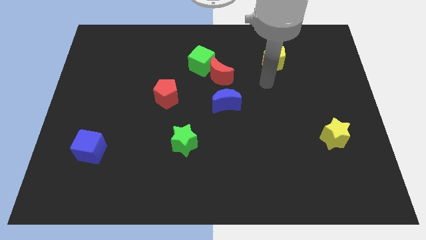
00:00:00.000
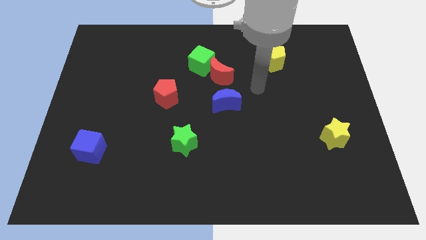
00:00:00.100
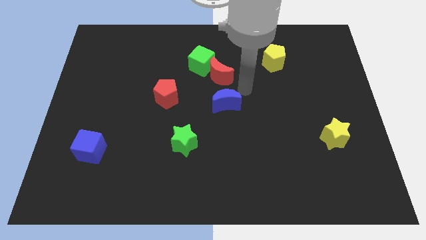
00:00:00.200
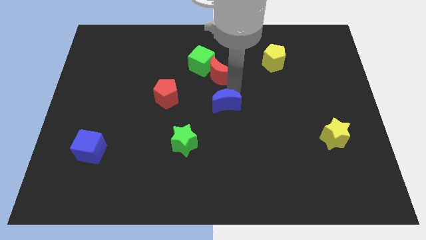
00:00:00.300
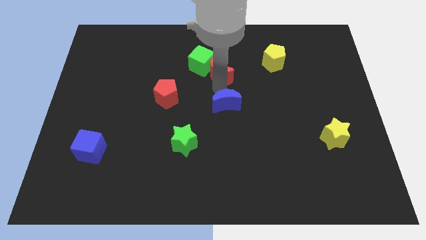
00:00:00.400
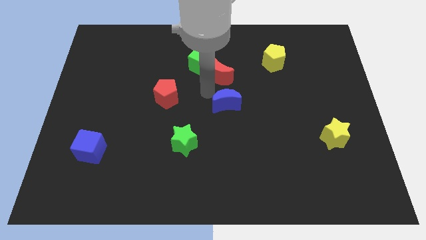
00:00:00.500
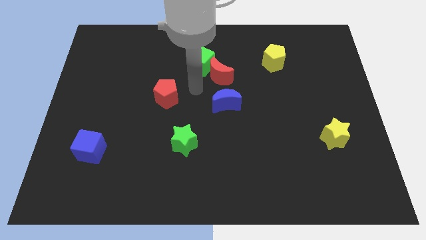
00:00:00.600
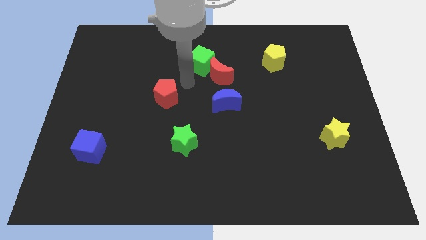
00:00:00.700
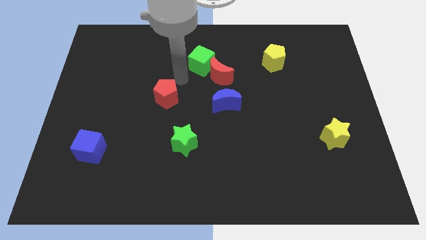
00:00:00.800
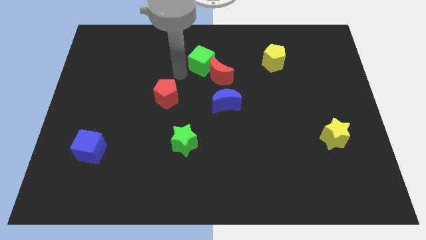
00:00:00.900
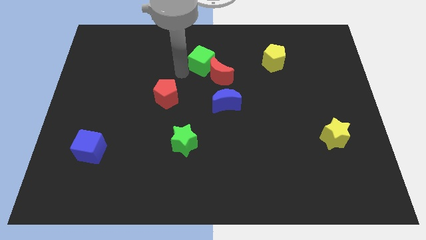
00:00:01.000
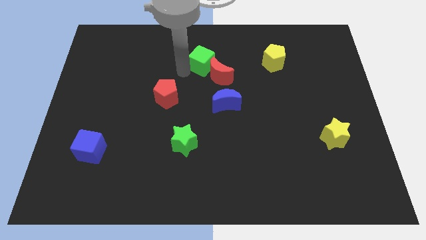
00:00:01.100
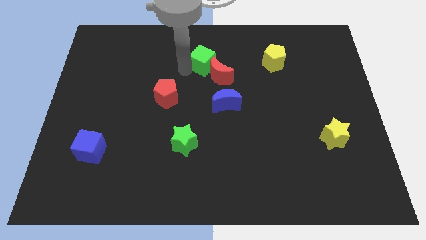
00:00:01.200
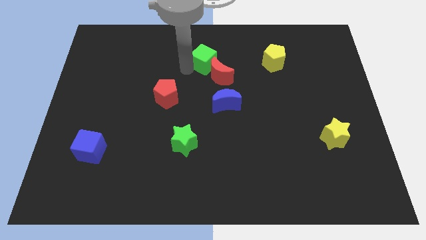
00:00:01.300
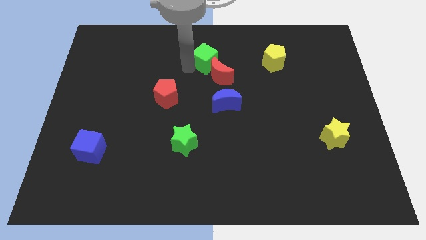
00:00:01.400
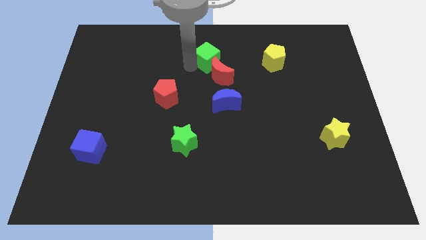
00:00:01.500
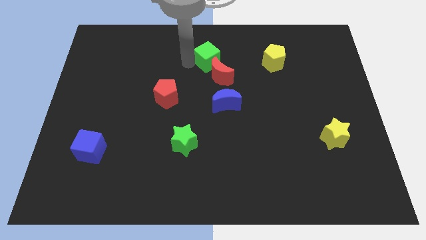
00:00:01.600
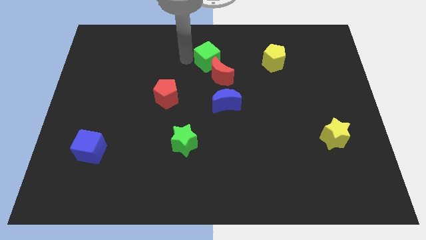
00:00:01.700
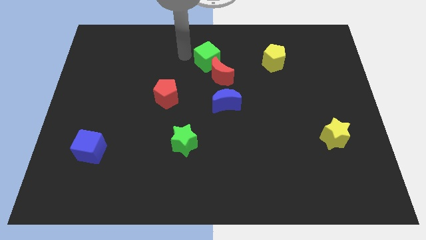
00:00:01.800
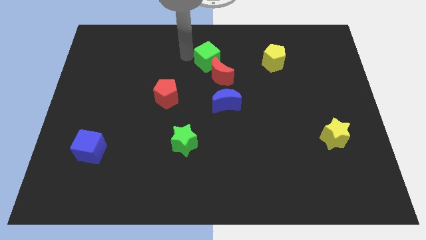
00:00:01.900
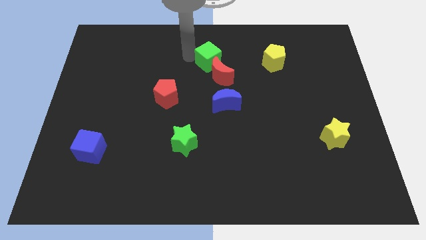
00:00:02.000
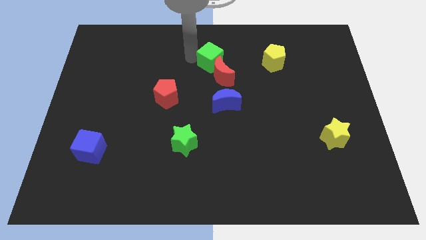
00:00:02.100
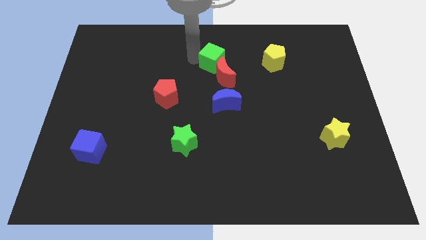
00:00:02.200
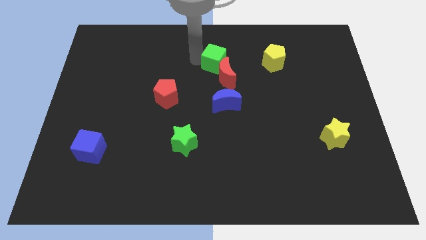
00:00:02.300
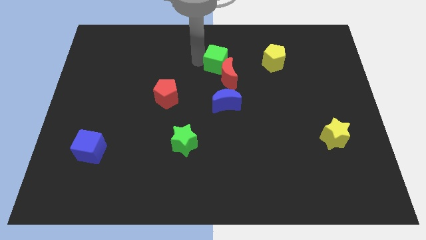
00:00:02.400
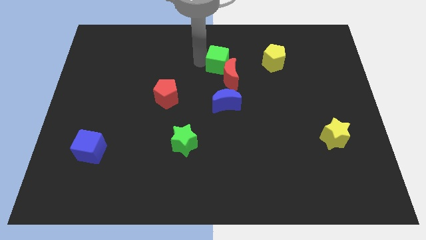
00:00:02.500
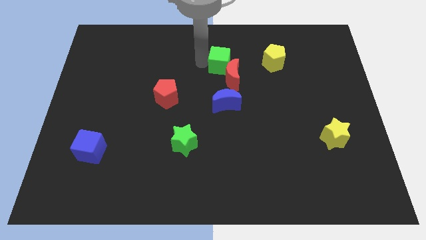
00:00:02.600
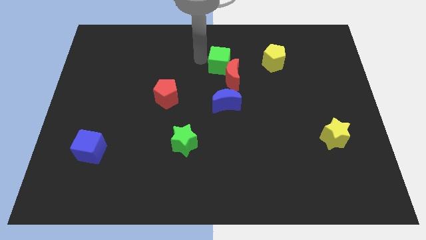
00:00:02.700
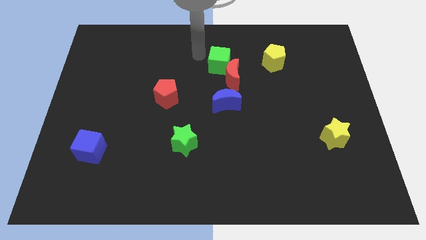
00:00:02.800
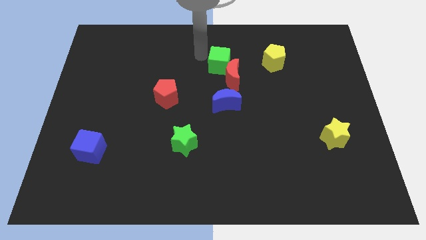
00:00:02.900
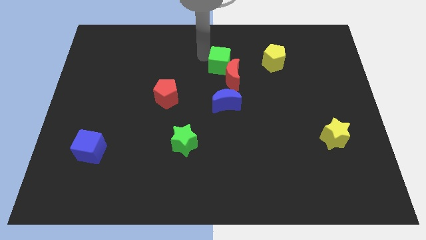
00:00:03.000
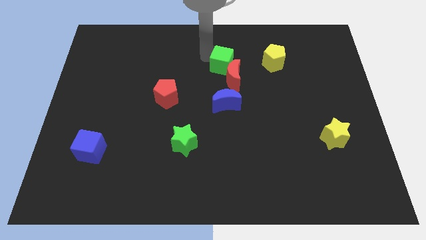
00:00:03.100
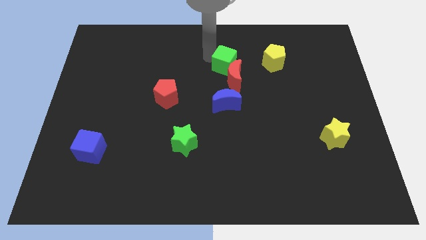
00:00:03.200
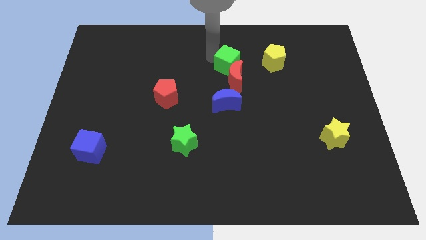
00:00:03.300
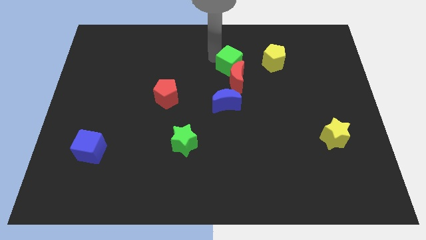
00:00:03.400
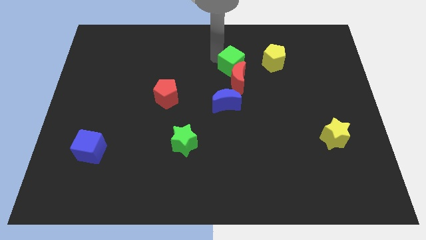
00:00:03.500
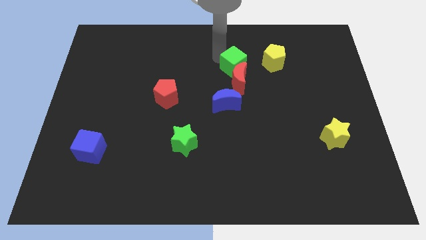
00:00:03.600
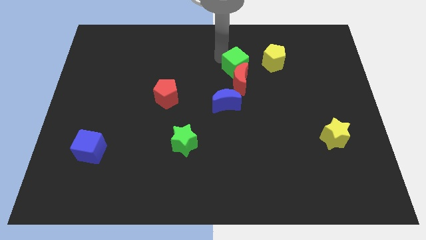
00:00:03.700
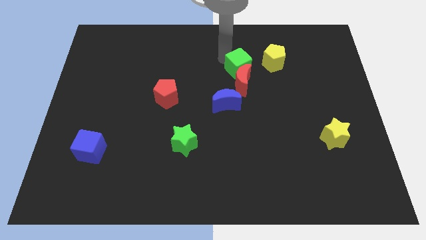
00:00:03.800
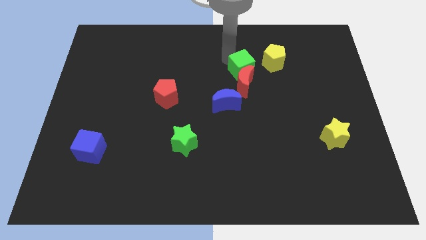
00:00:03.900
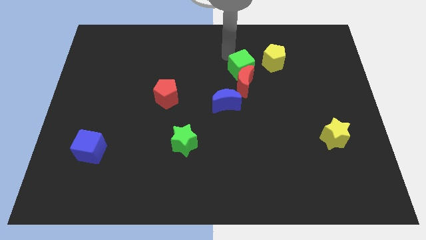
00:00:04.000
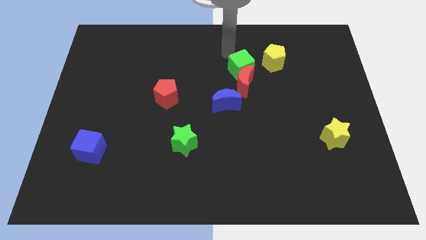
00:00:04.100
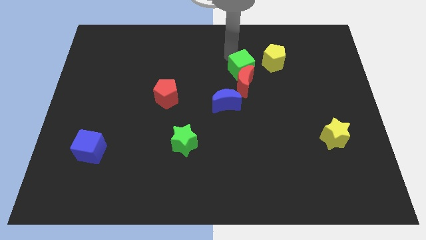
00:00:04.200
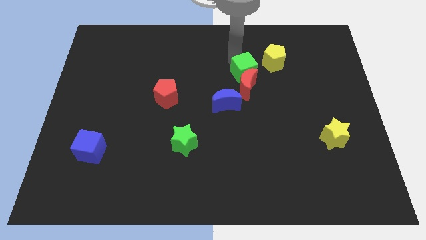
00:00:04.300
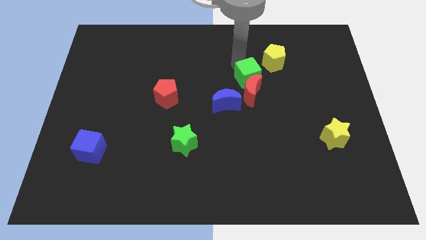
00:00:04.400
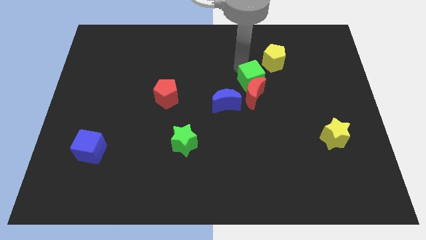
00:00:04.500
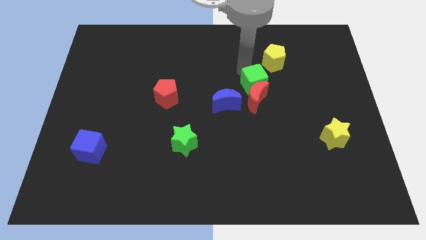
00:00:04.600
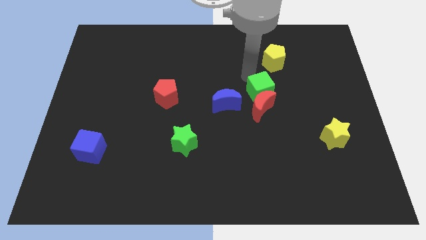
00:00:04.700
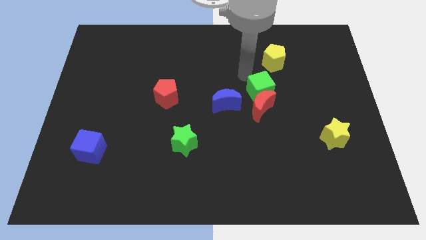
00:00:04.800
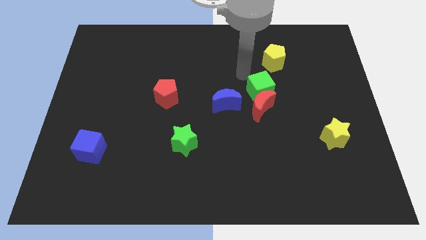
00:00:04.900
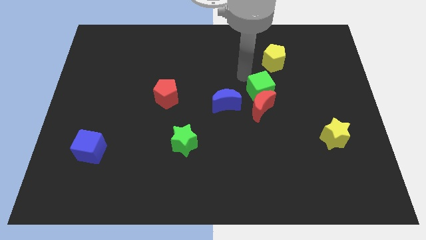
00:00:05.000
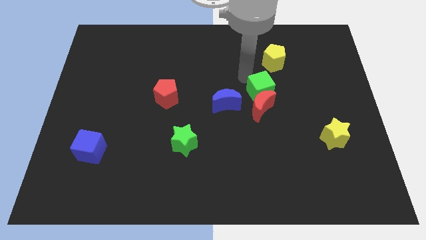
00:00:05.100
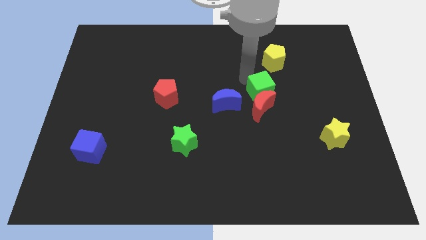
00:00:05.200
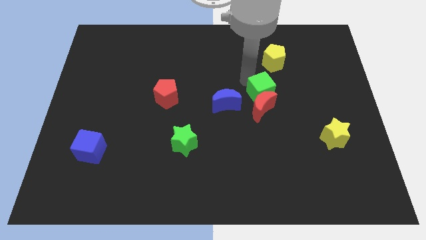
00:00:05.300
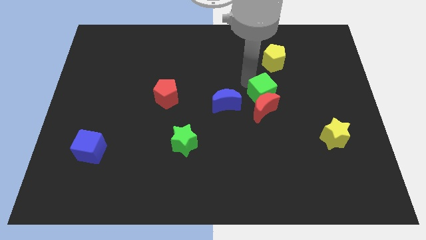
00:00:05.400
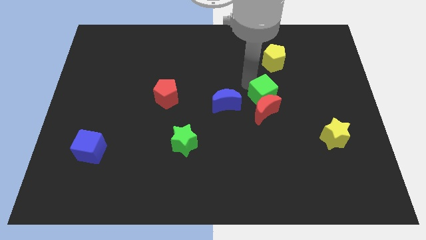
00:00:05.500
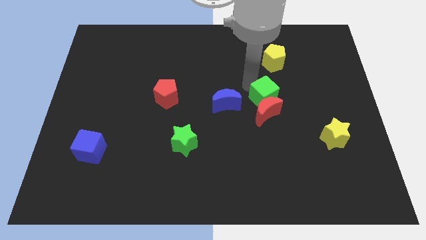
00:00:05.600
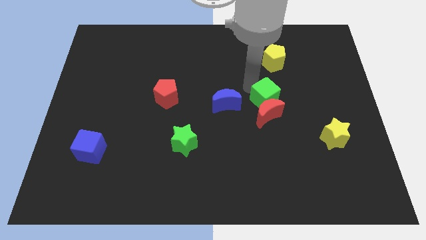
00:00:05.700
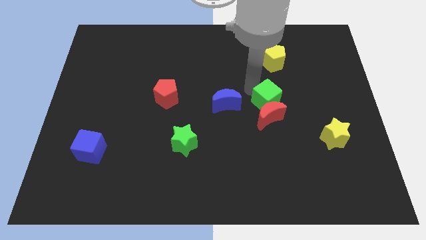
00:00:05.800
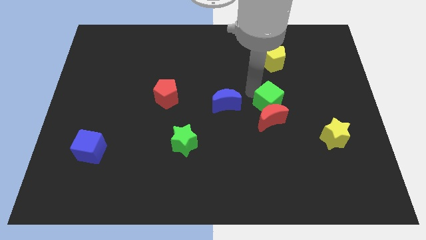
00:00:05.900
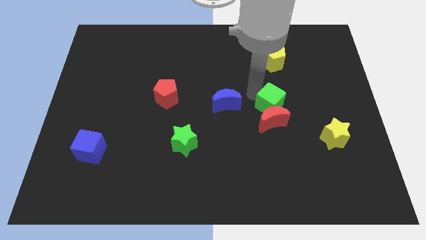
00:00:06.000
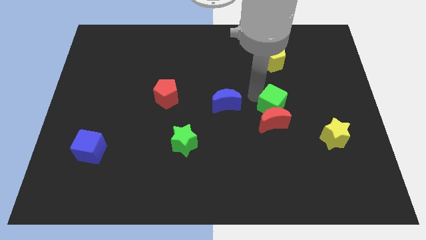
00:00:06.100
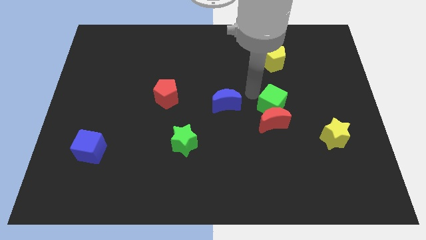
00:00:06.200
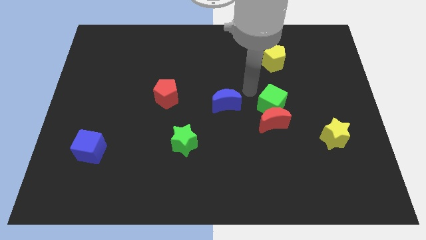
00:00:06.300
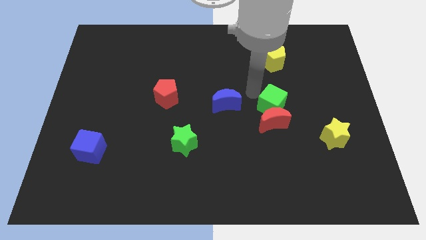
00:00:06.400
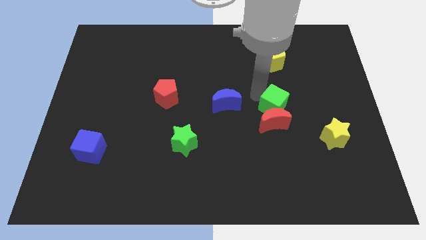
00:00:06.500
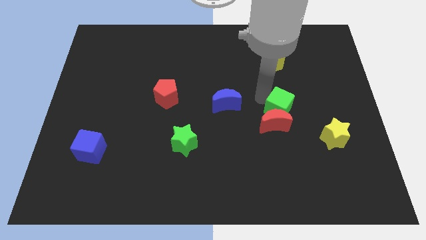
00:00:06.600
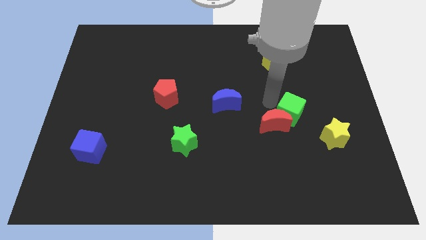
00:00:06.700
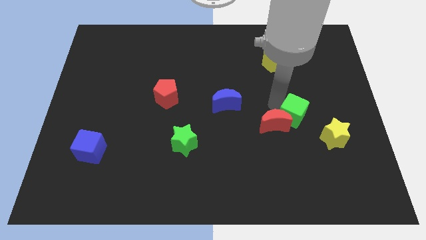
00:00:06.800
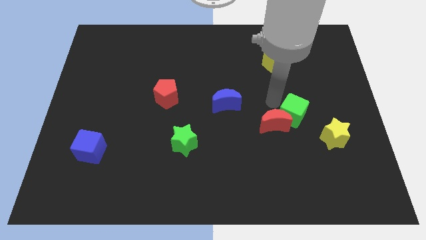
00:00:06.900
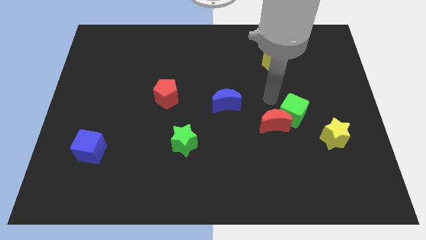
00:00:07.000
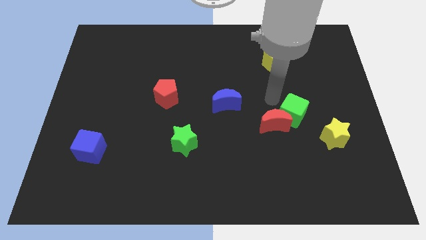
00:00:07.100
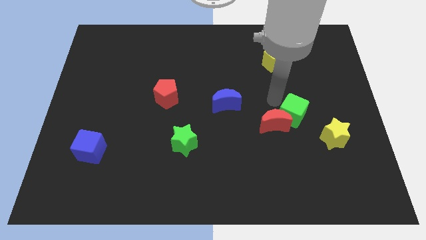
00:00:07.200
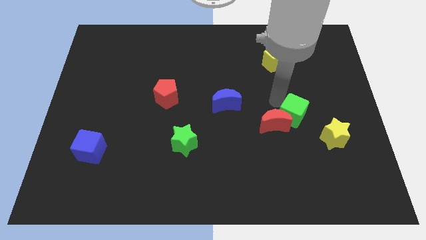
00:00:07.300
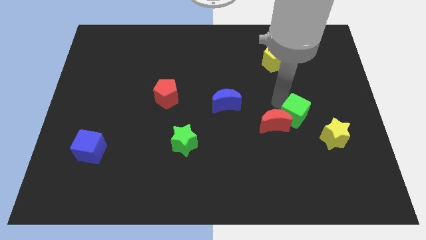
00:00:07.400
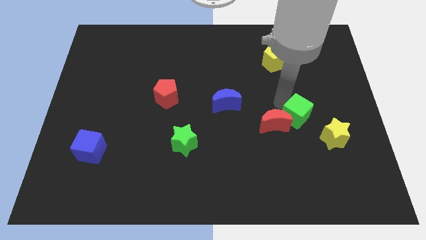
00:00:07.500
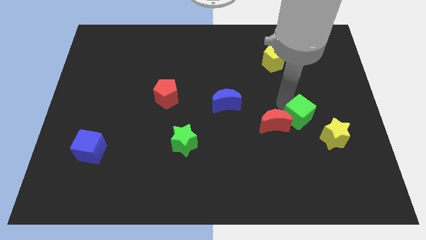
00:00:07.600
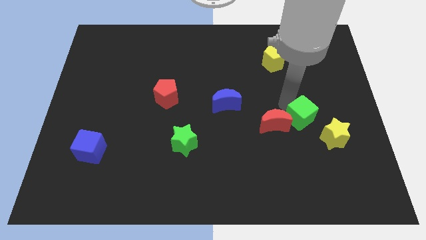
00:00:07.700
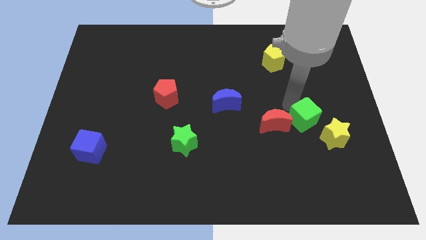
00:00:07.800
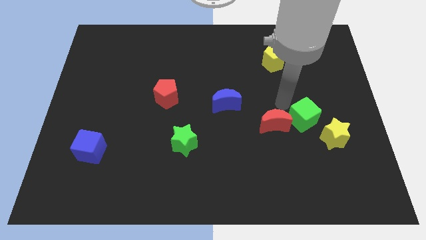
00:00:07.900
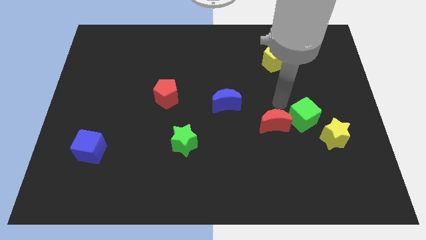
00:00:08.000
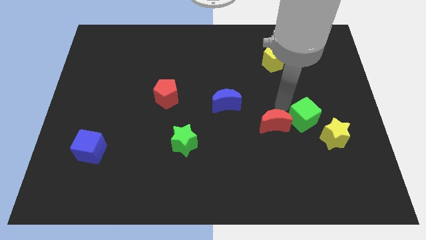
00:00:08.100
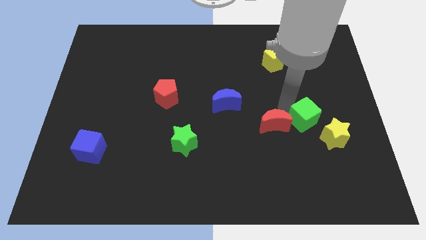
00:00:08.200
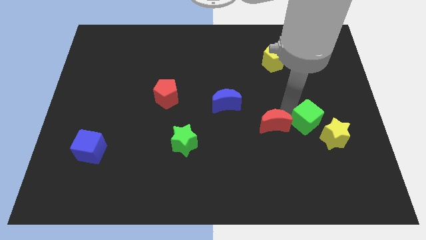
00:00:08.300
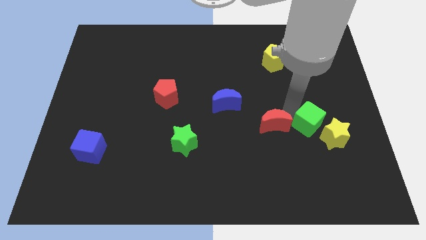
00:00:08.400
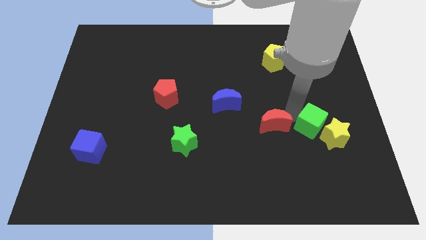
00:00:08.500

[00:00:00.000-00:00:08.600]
push the green cube close to the yellow star

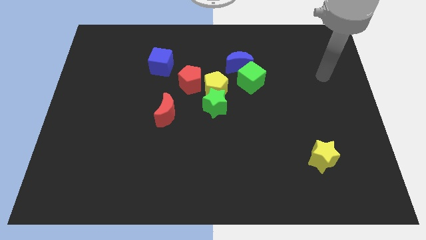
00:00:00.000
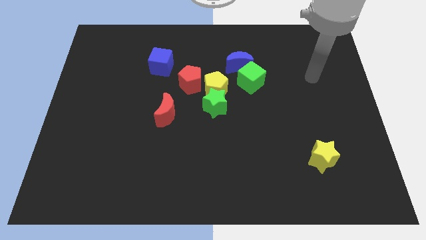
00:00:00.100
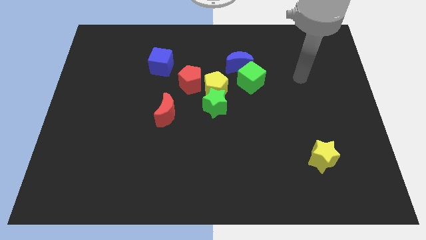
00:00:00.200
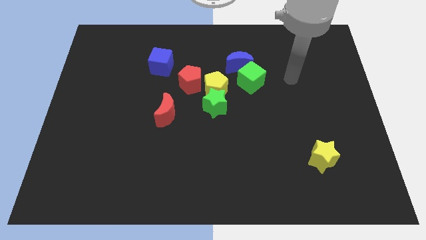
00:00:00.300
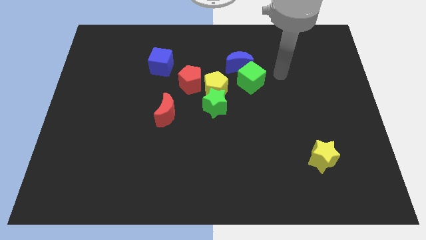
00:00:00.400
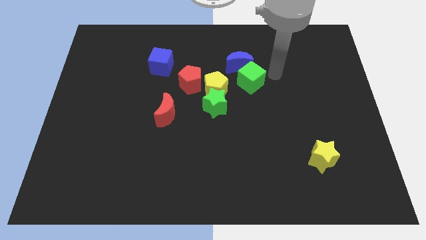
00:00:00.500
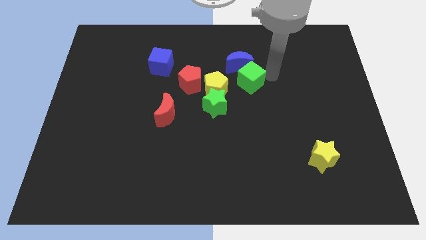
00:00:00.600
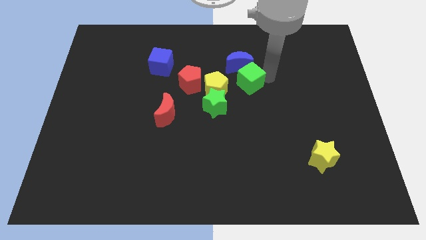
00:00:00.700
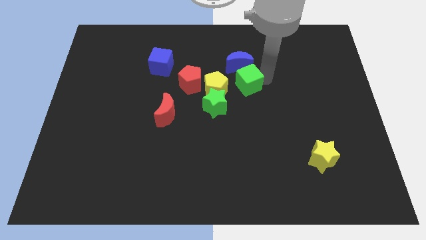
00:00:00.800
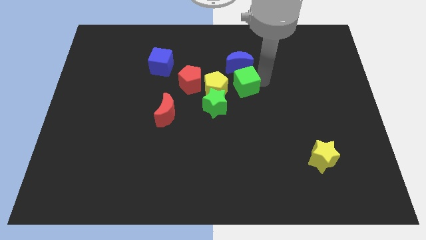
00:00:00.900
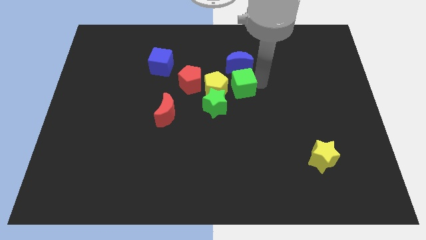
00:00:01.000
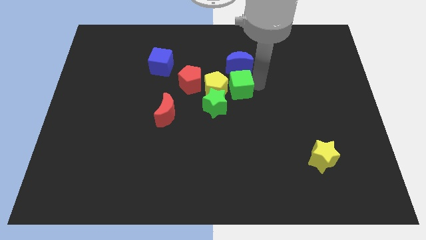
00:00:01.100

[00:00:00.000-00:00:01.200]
slide the green cube to the yellow pentagon
